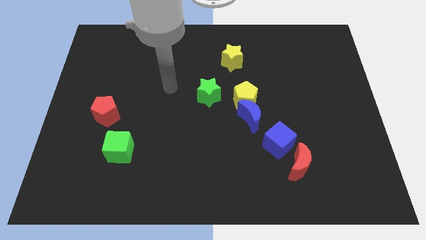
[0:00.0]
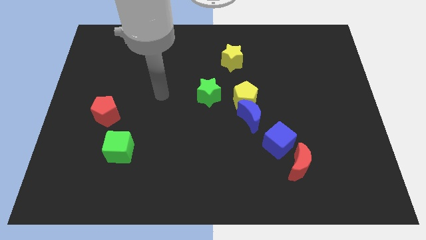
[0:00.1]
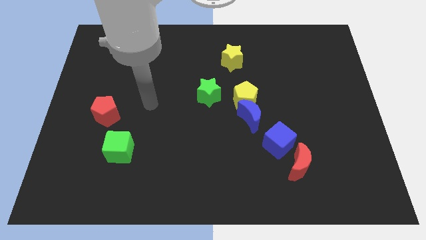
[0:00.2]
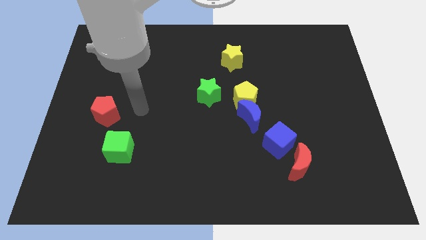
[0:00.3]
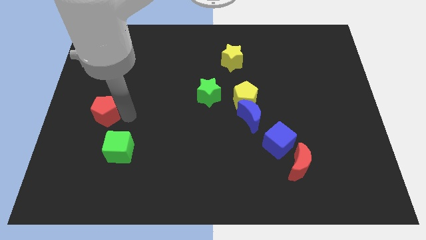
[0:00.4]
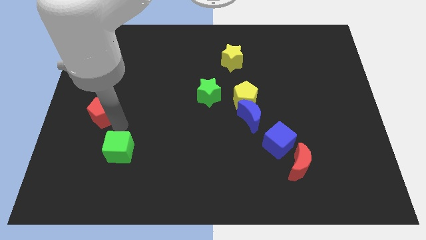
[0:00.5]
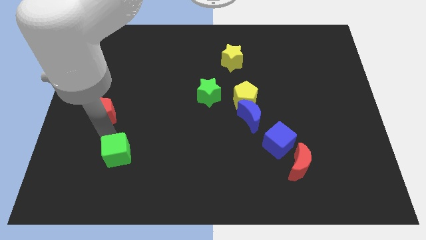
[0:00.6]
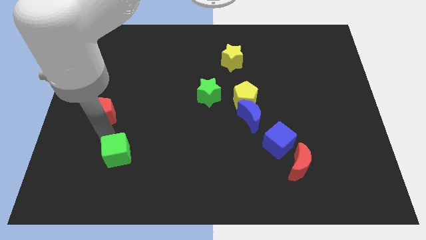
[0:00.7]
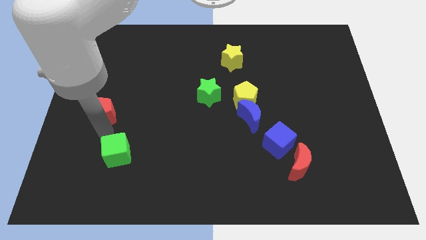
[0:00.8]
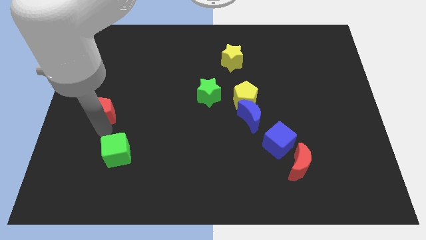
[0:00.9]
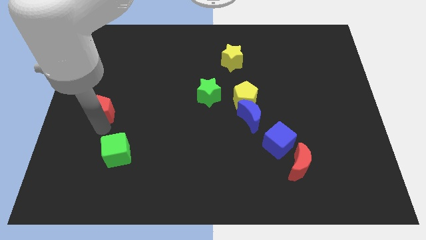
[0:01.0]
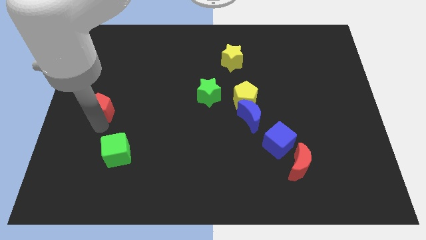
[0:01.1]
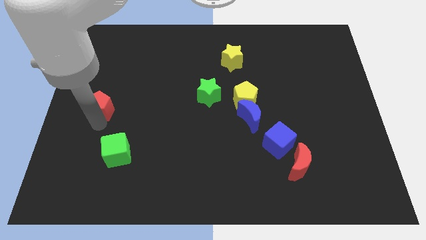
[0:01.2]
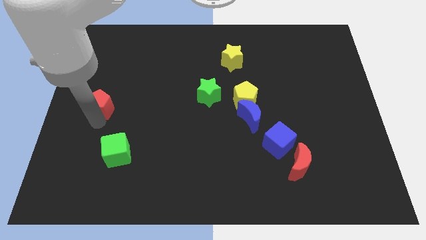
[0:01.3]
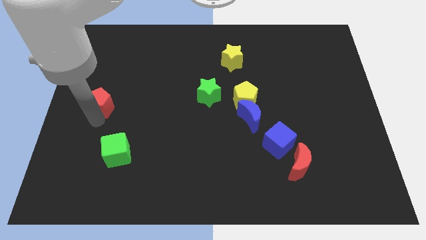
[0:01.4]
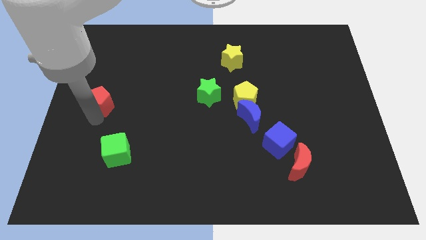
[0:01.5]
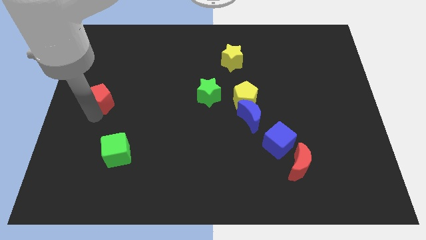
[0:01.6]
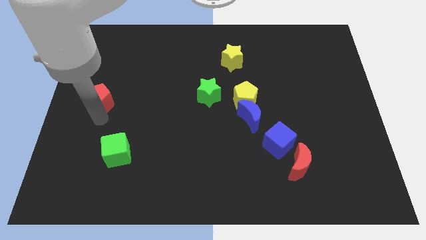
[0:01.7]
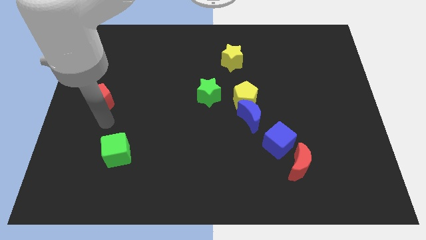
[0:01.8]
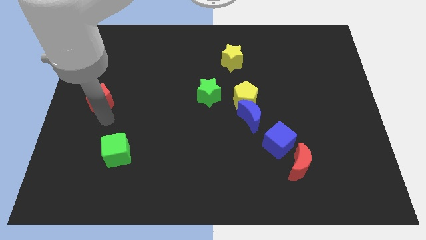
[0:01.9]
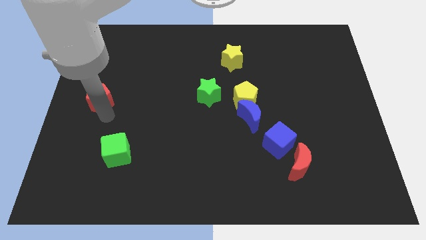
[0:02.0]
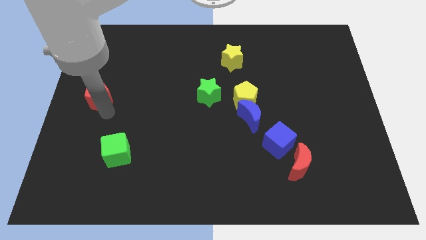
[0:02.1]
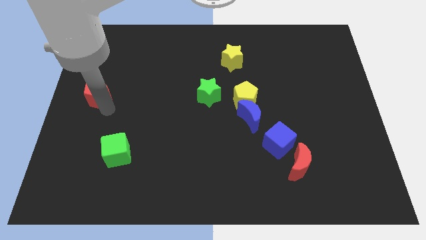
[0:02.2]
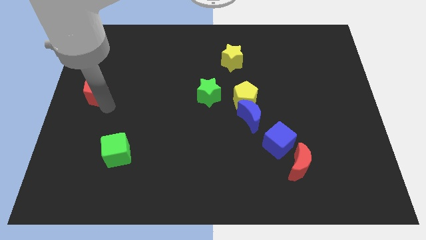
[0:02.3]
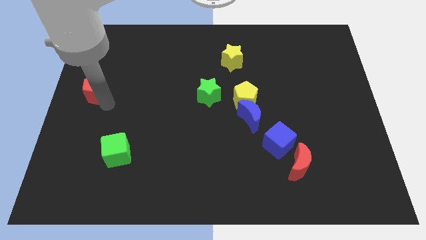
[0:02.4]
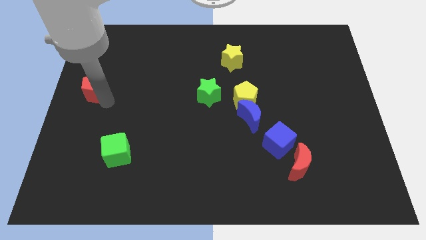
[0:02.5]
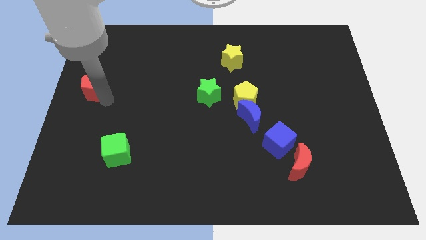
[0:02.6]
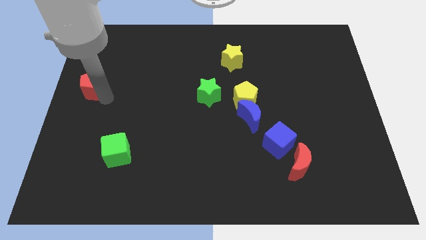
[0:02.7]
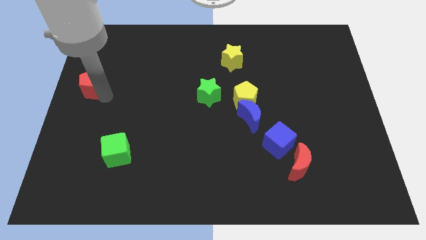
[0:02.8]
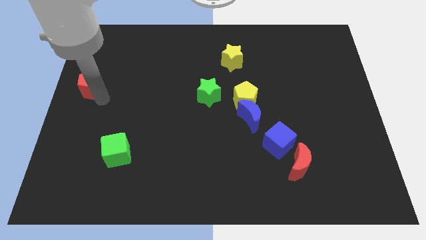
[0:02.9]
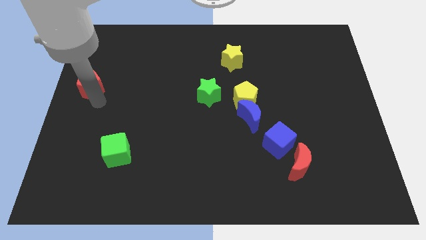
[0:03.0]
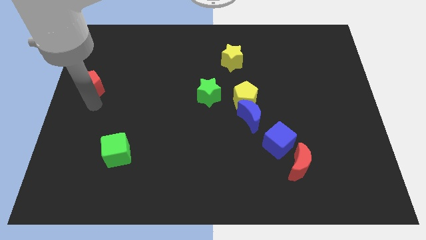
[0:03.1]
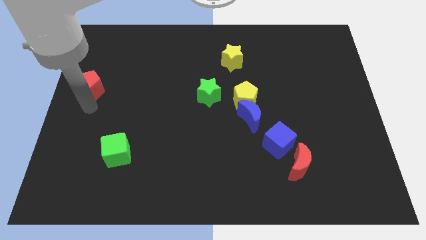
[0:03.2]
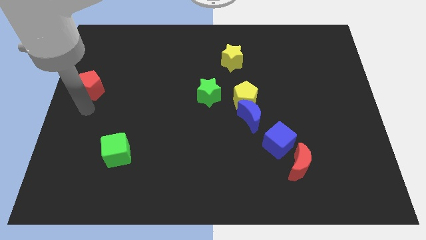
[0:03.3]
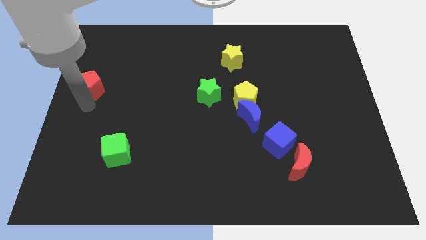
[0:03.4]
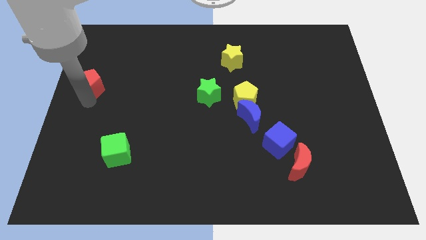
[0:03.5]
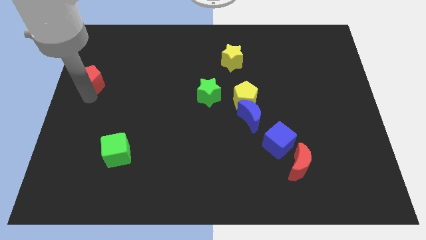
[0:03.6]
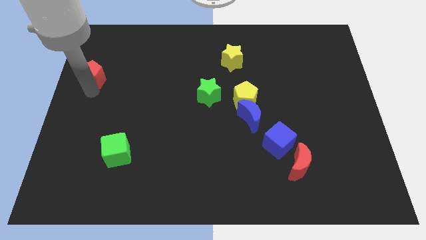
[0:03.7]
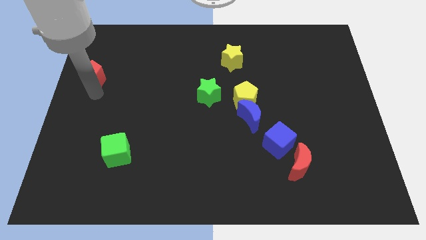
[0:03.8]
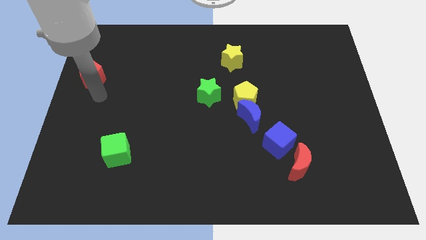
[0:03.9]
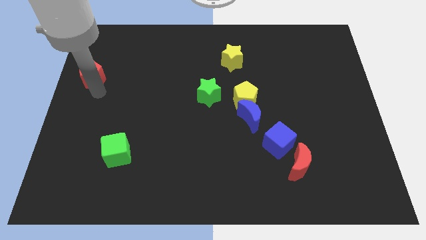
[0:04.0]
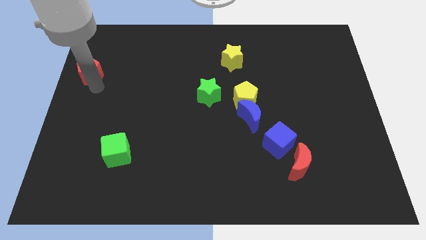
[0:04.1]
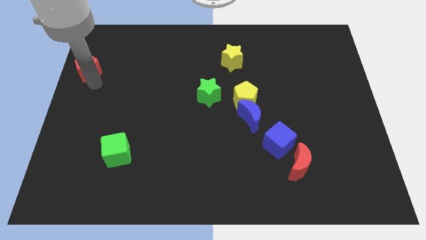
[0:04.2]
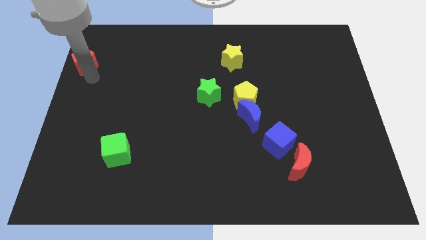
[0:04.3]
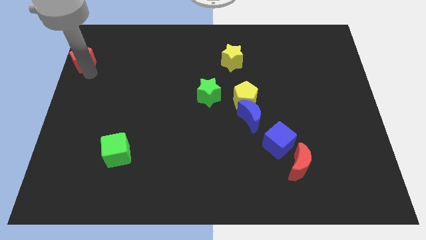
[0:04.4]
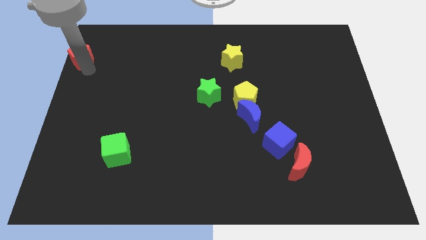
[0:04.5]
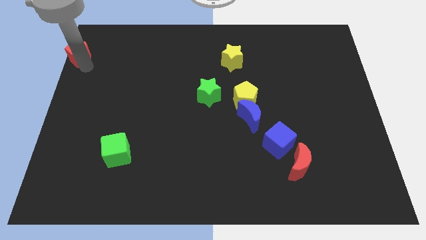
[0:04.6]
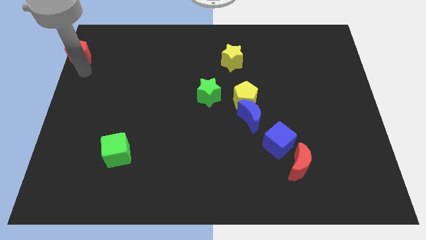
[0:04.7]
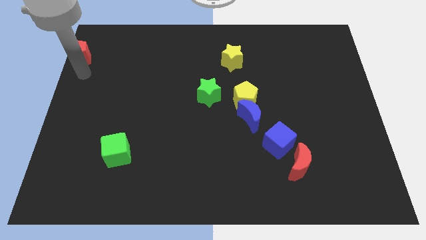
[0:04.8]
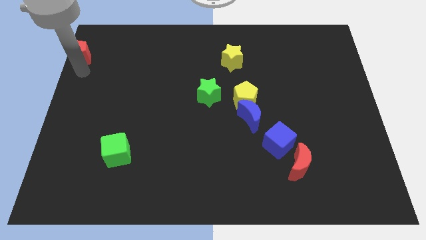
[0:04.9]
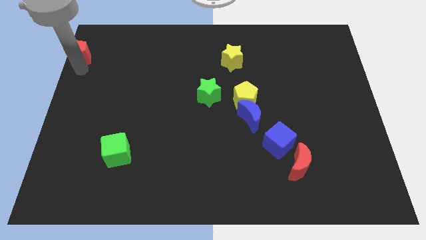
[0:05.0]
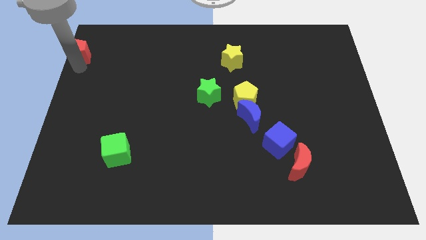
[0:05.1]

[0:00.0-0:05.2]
put the red pentagon to the top left of the board

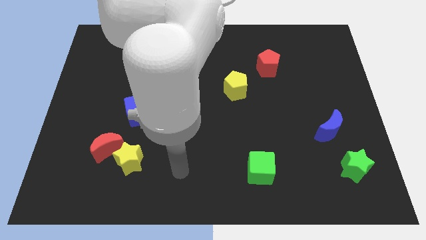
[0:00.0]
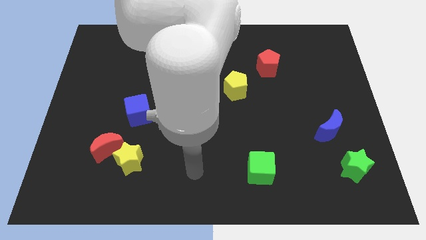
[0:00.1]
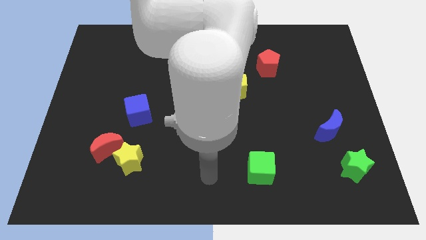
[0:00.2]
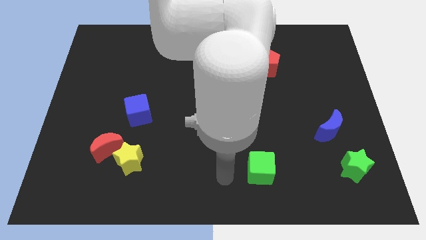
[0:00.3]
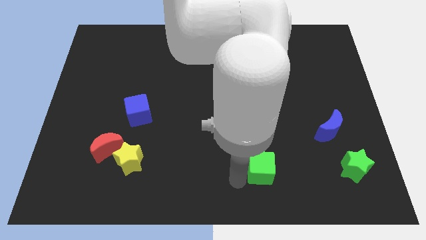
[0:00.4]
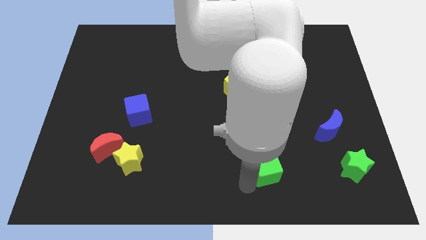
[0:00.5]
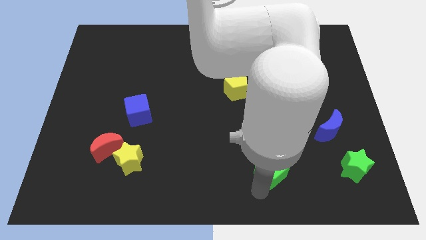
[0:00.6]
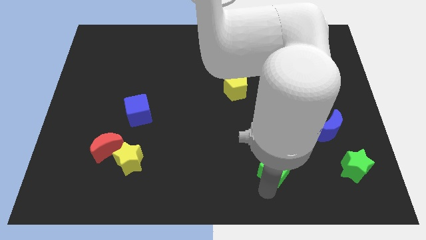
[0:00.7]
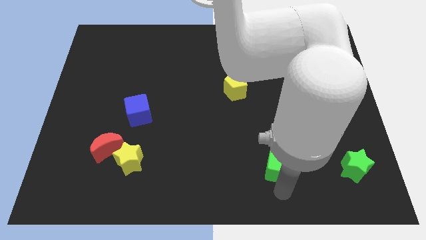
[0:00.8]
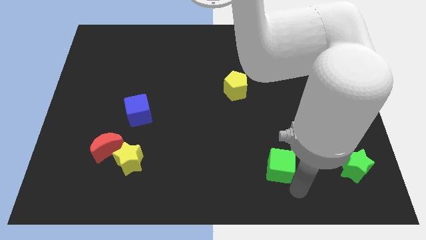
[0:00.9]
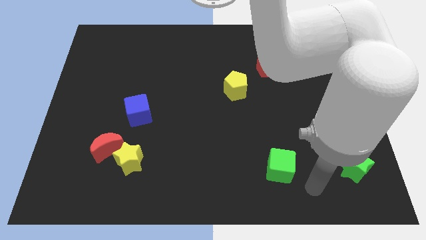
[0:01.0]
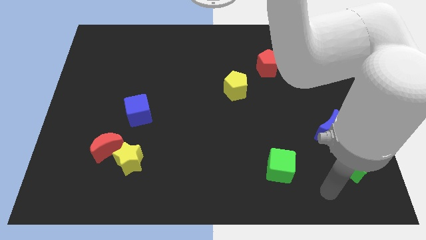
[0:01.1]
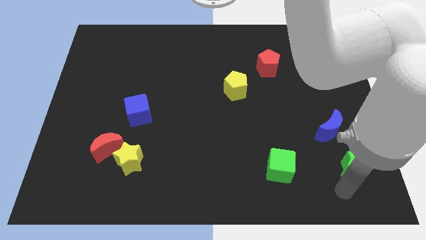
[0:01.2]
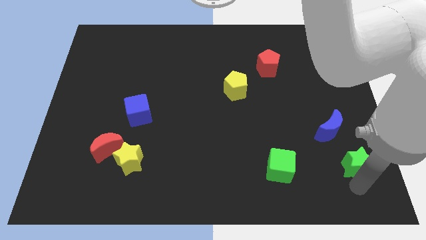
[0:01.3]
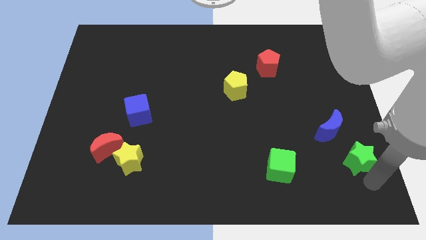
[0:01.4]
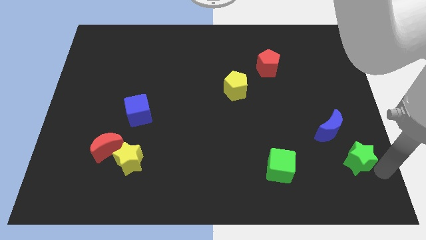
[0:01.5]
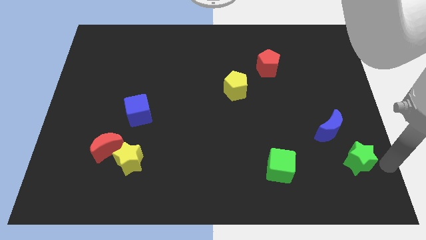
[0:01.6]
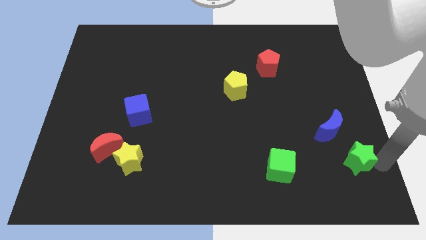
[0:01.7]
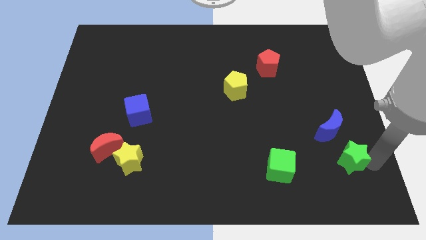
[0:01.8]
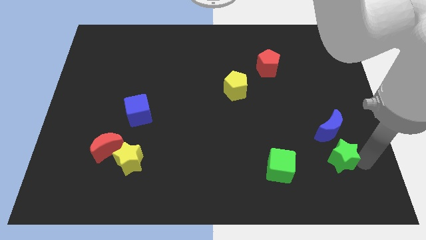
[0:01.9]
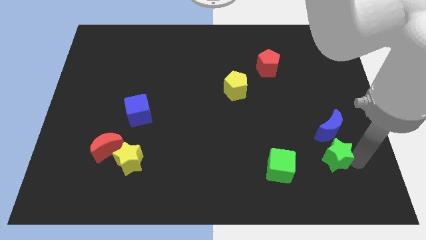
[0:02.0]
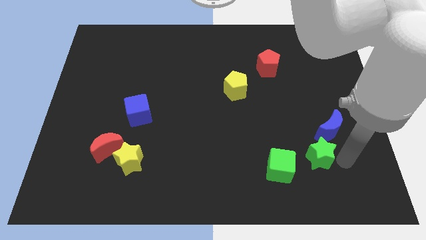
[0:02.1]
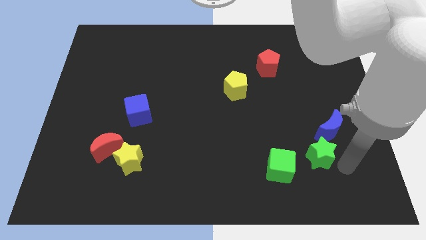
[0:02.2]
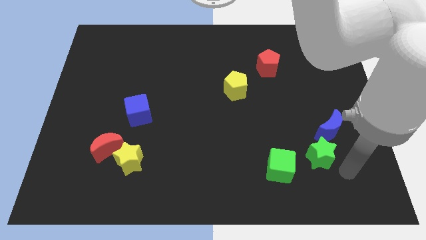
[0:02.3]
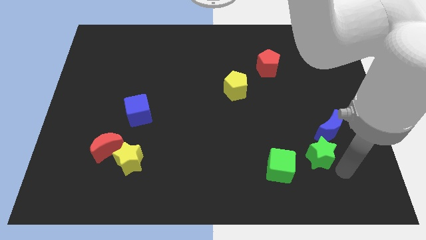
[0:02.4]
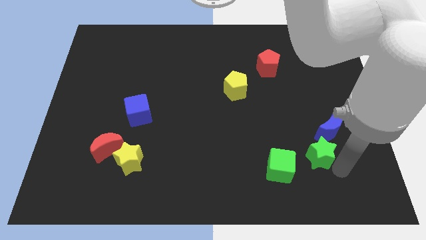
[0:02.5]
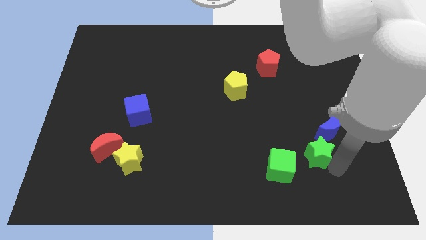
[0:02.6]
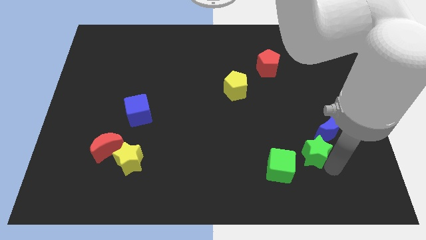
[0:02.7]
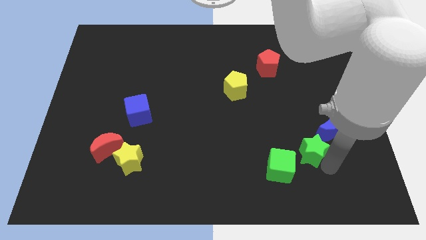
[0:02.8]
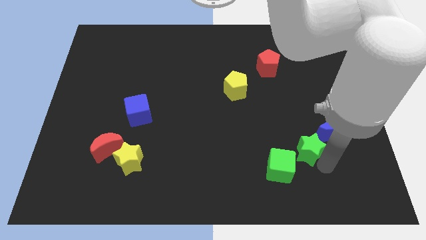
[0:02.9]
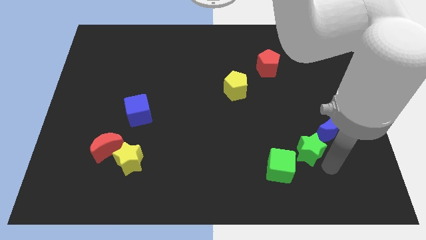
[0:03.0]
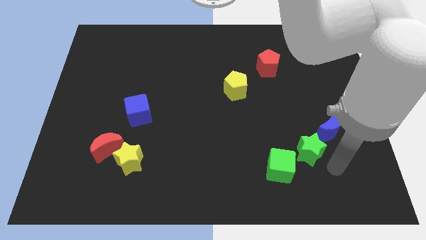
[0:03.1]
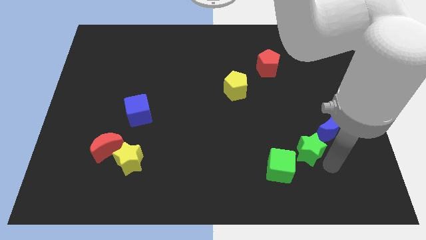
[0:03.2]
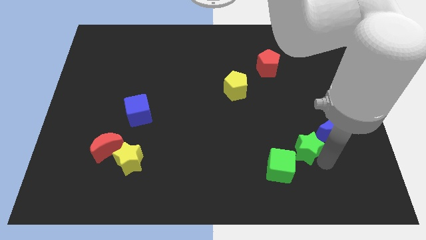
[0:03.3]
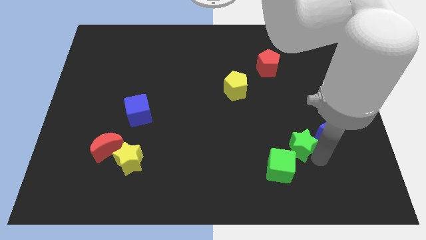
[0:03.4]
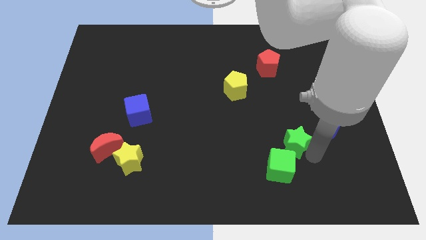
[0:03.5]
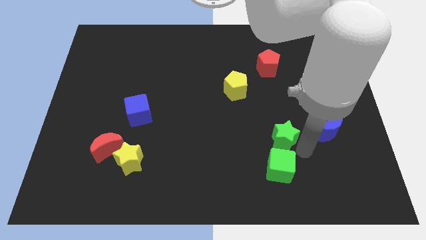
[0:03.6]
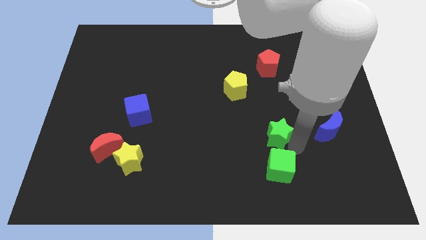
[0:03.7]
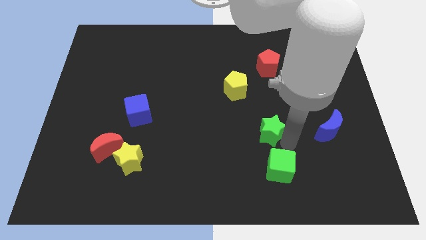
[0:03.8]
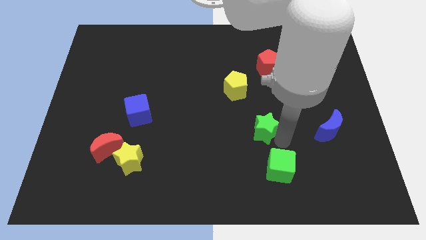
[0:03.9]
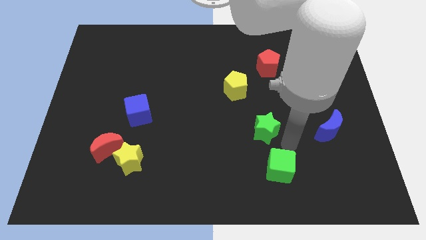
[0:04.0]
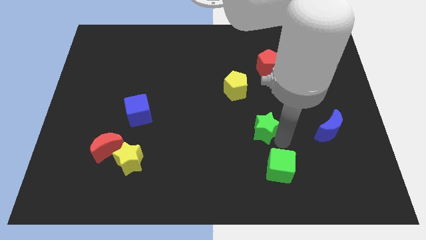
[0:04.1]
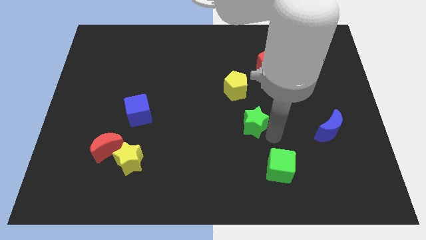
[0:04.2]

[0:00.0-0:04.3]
move the green star to the middle of the board
